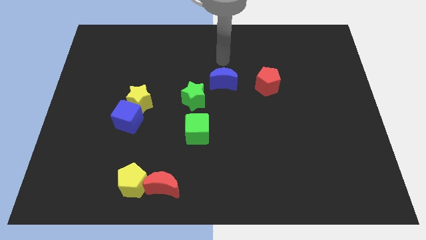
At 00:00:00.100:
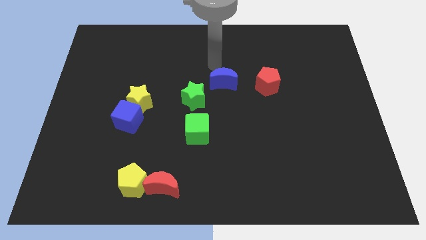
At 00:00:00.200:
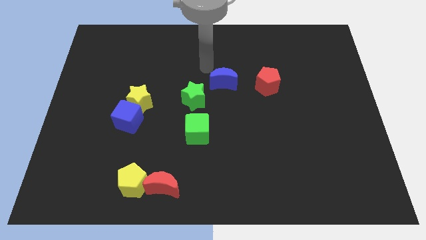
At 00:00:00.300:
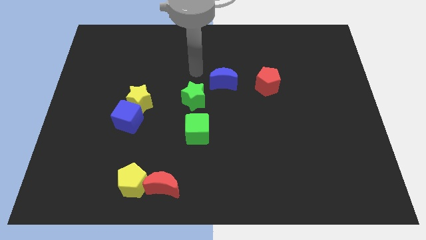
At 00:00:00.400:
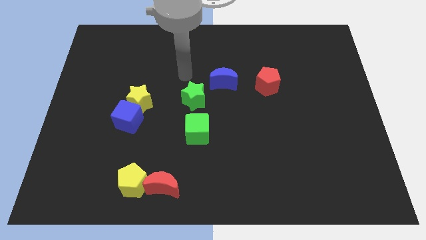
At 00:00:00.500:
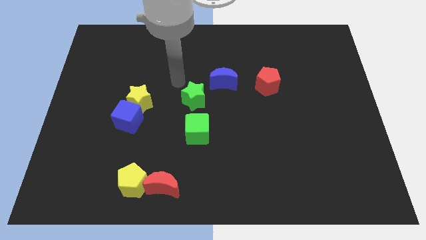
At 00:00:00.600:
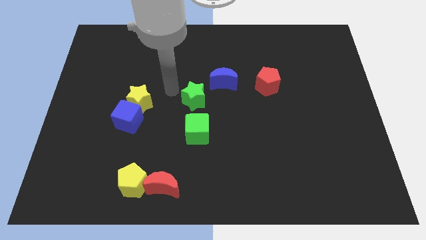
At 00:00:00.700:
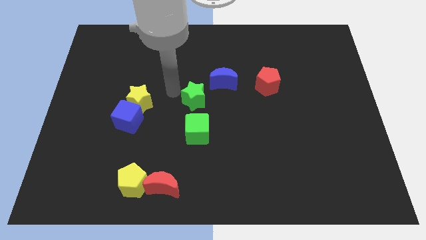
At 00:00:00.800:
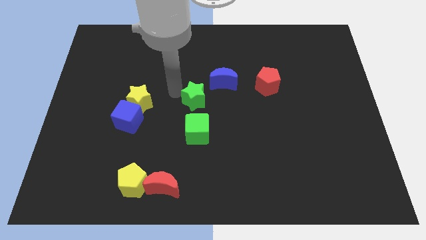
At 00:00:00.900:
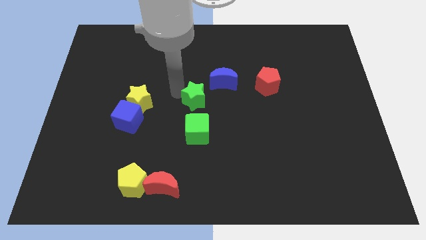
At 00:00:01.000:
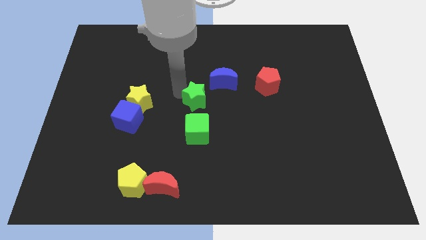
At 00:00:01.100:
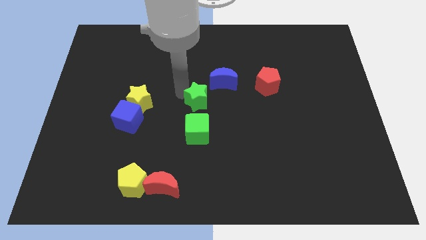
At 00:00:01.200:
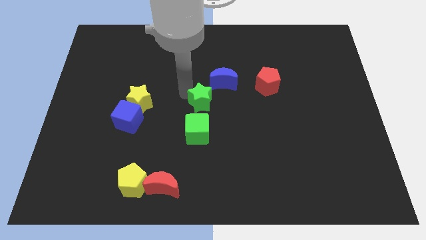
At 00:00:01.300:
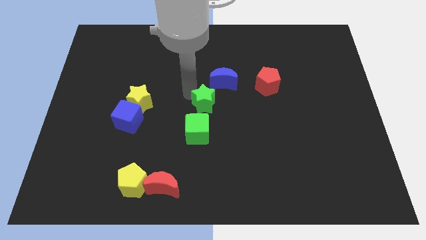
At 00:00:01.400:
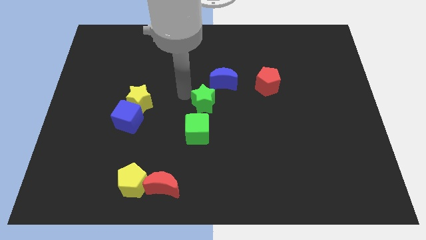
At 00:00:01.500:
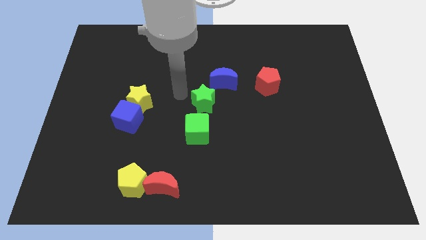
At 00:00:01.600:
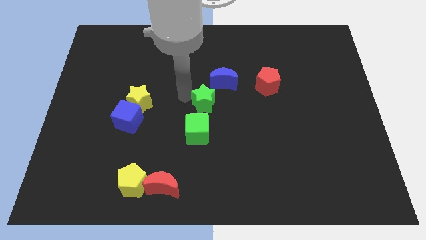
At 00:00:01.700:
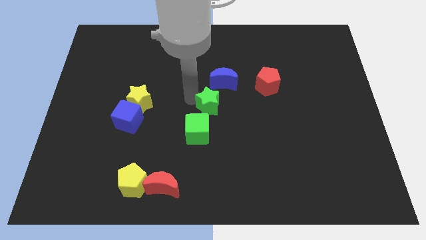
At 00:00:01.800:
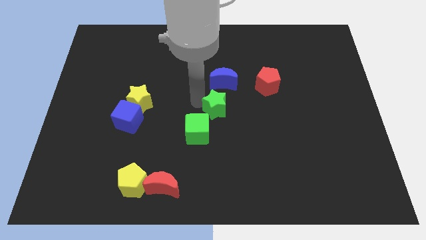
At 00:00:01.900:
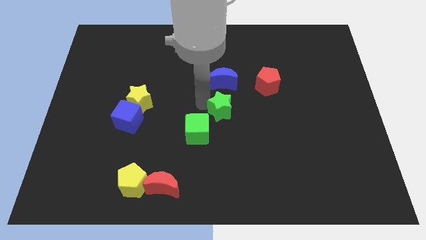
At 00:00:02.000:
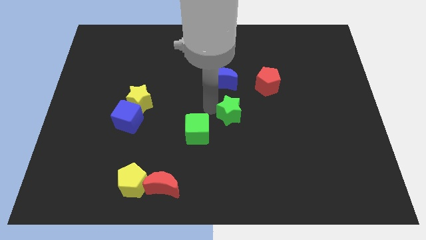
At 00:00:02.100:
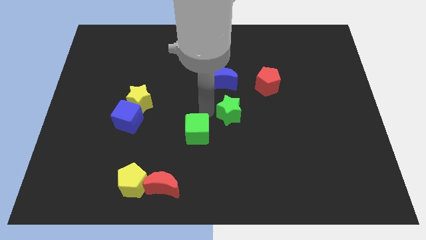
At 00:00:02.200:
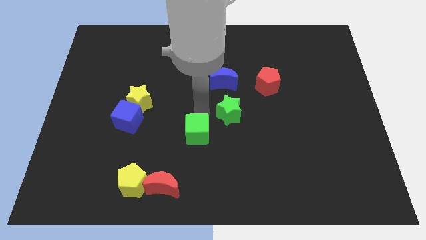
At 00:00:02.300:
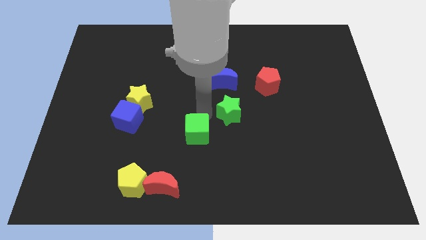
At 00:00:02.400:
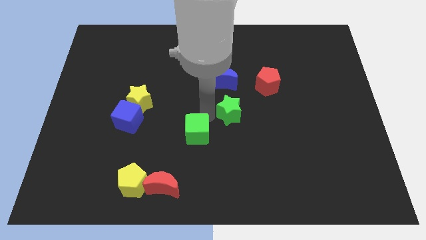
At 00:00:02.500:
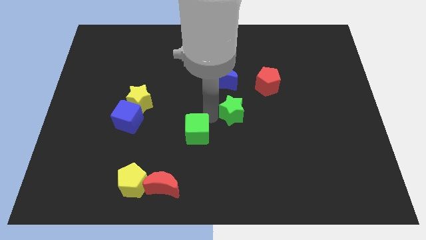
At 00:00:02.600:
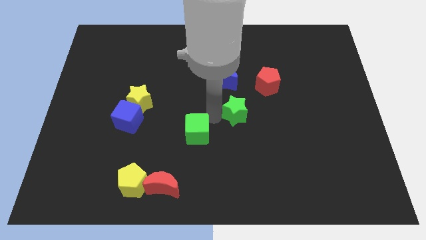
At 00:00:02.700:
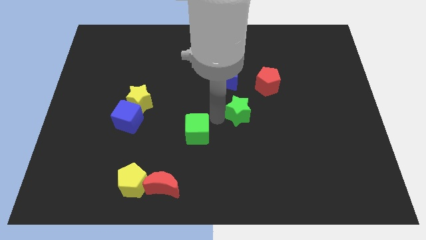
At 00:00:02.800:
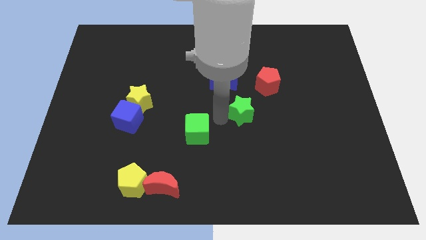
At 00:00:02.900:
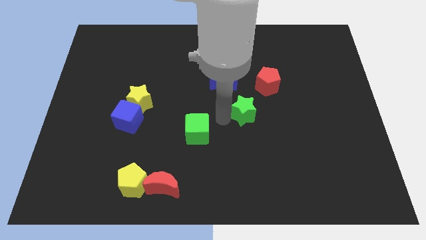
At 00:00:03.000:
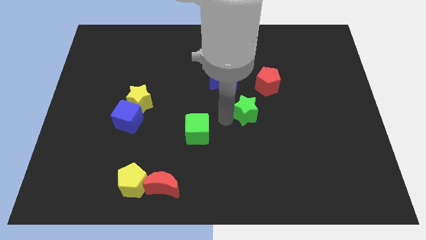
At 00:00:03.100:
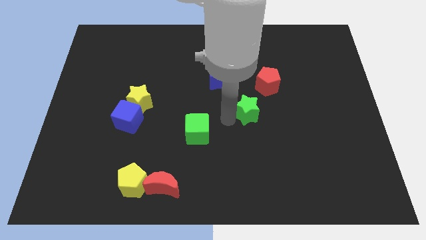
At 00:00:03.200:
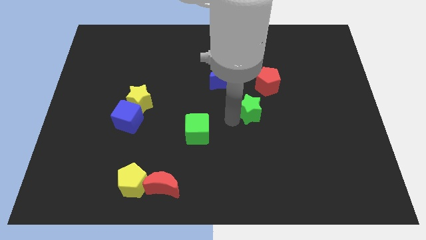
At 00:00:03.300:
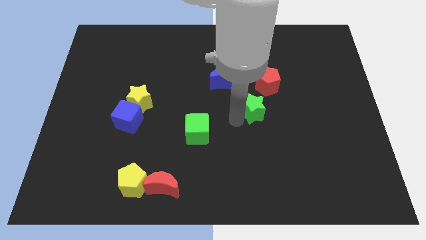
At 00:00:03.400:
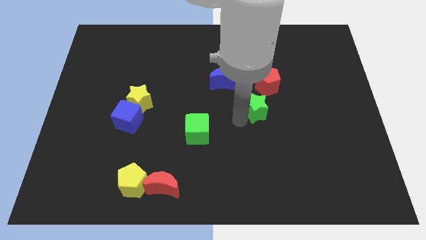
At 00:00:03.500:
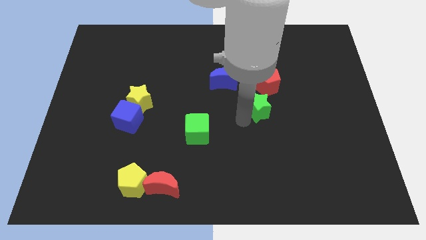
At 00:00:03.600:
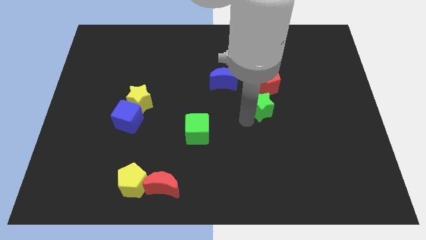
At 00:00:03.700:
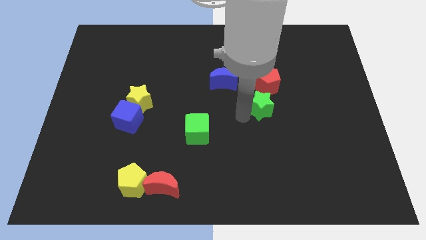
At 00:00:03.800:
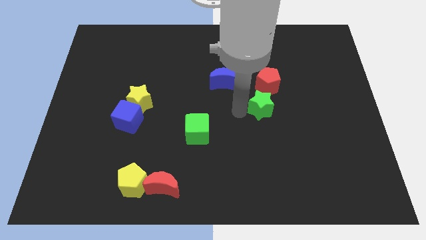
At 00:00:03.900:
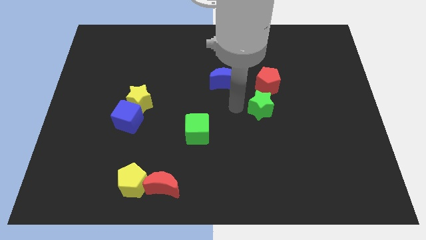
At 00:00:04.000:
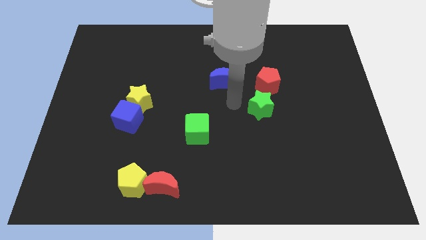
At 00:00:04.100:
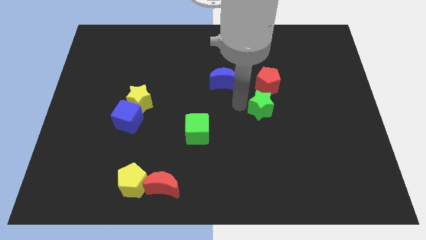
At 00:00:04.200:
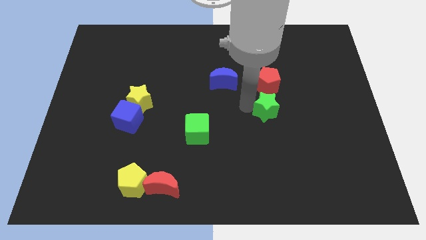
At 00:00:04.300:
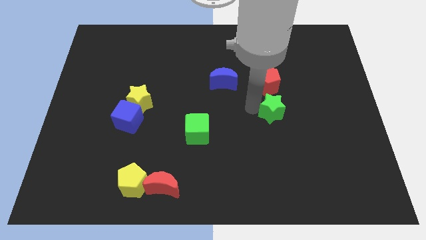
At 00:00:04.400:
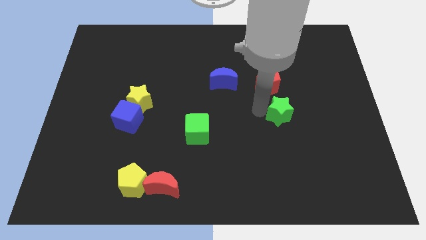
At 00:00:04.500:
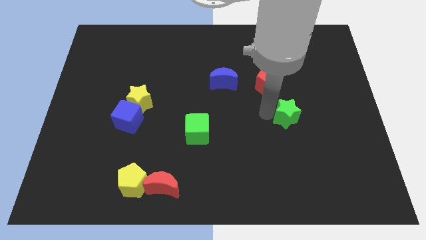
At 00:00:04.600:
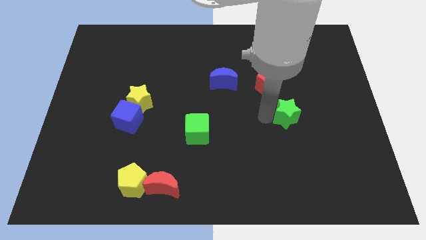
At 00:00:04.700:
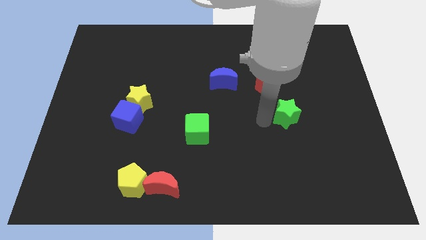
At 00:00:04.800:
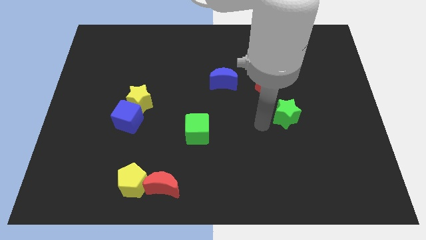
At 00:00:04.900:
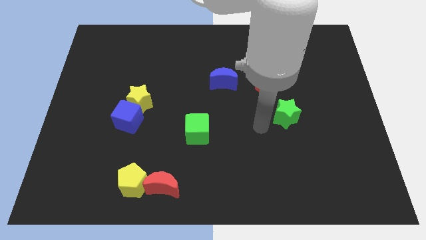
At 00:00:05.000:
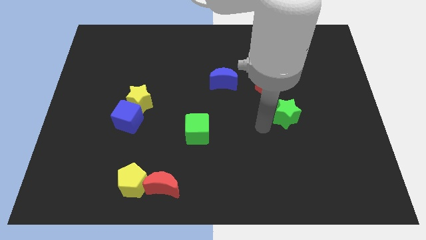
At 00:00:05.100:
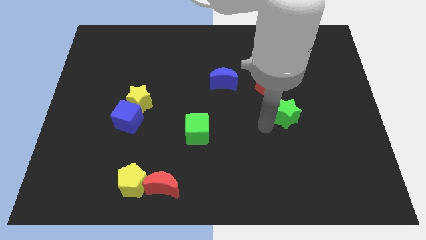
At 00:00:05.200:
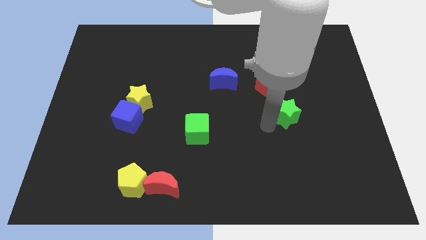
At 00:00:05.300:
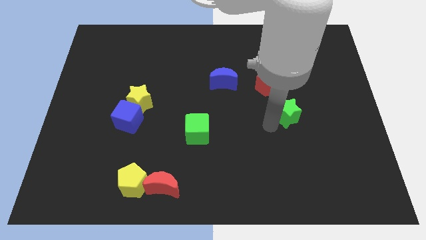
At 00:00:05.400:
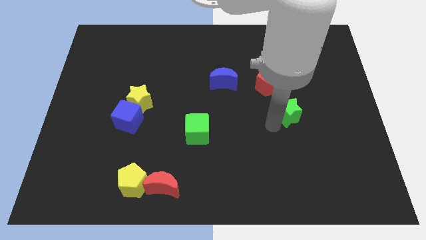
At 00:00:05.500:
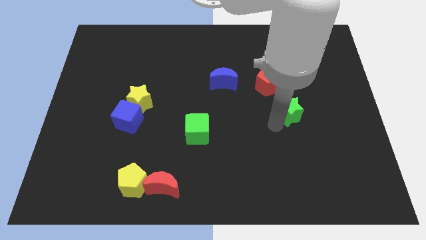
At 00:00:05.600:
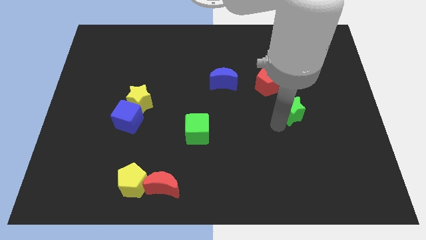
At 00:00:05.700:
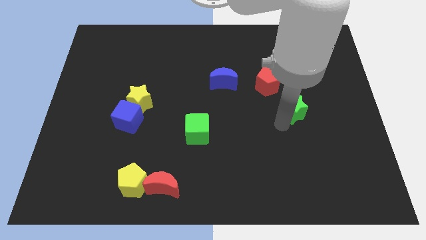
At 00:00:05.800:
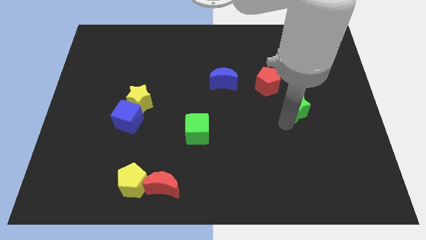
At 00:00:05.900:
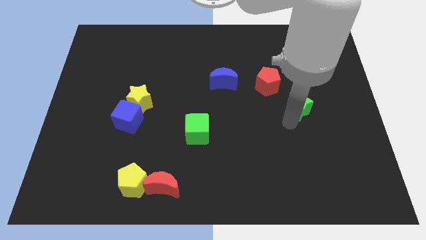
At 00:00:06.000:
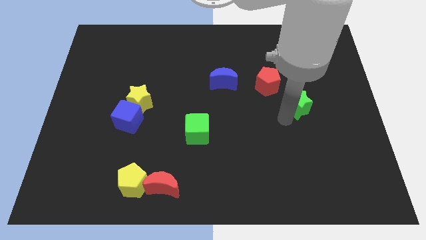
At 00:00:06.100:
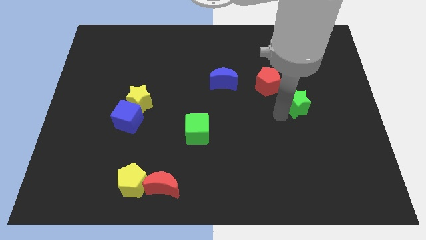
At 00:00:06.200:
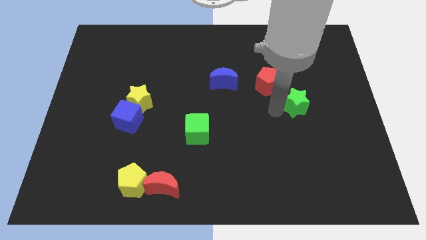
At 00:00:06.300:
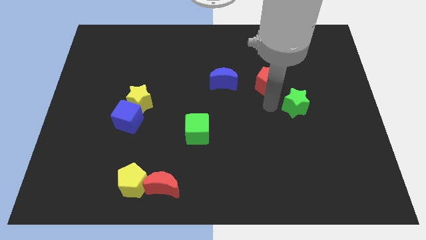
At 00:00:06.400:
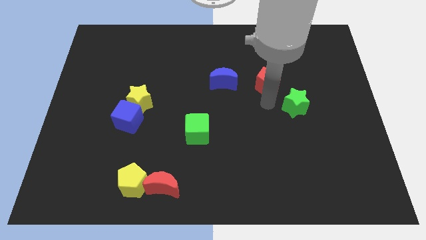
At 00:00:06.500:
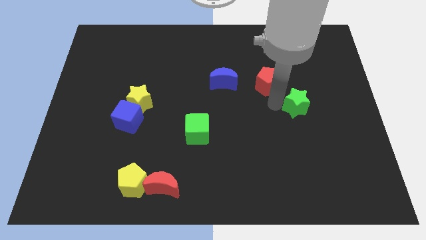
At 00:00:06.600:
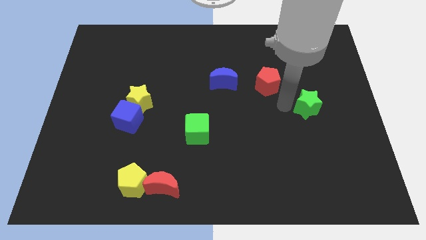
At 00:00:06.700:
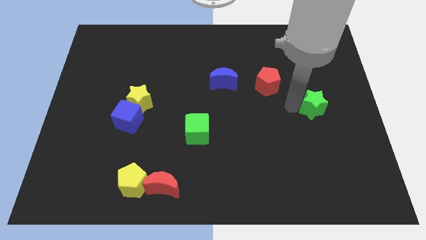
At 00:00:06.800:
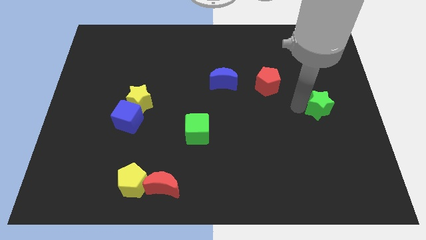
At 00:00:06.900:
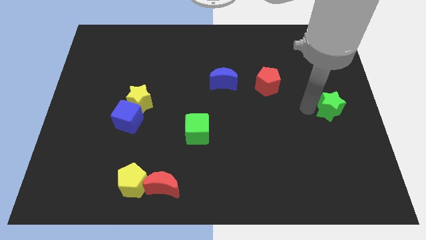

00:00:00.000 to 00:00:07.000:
push the green star to the center right
